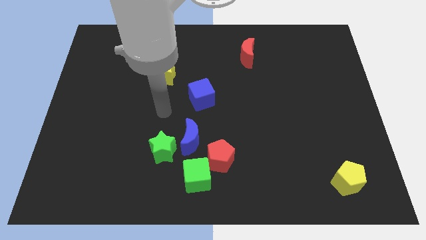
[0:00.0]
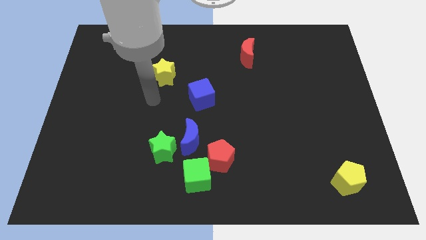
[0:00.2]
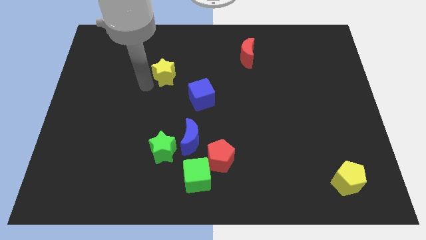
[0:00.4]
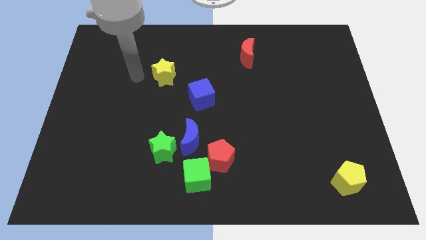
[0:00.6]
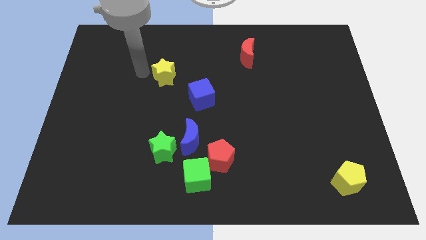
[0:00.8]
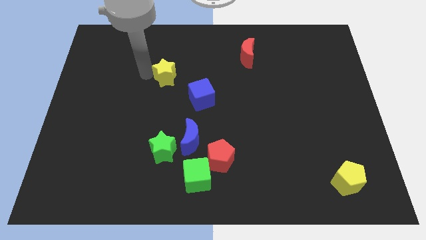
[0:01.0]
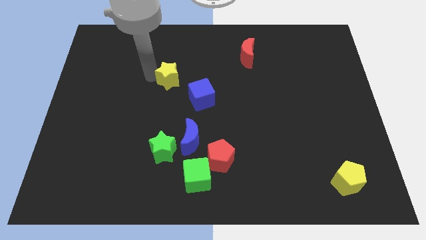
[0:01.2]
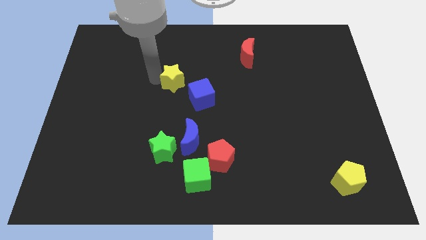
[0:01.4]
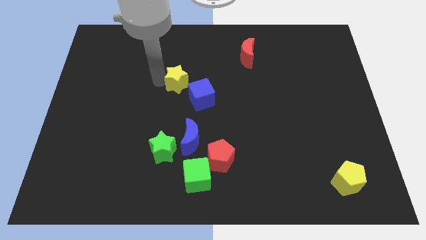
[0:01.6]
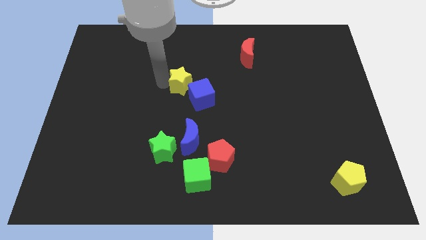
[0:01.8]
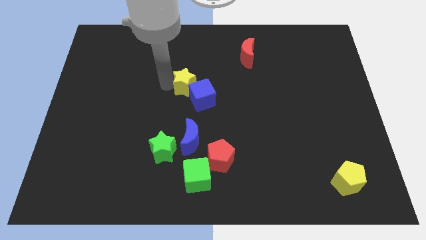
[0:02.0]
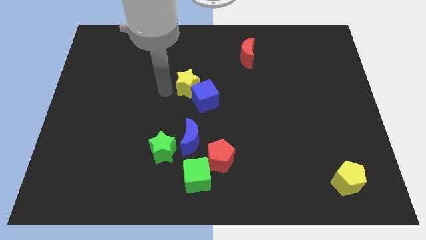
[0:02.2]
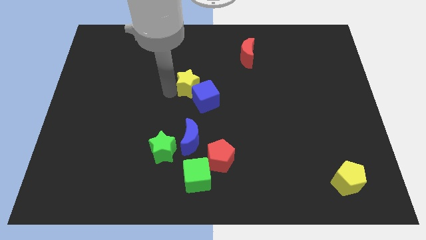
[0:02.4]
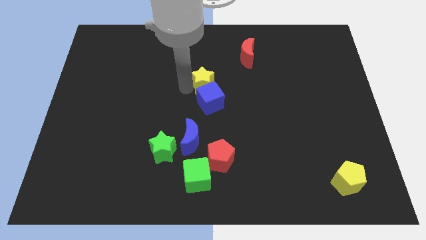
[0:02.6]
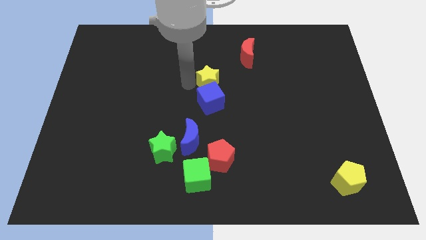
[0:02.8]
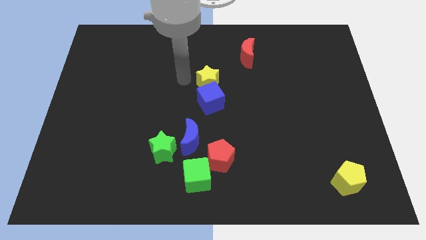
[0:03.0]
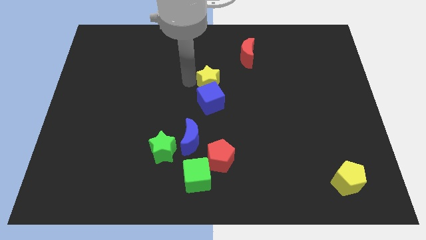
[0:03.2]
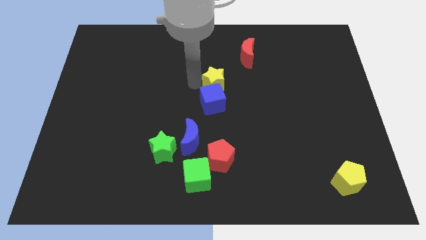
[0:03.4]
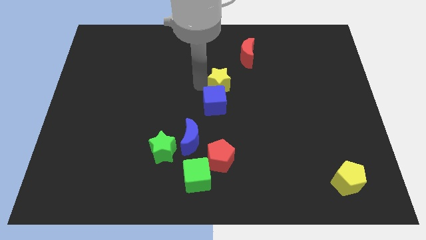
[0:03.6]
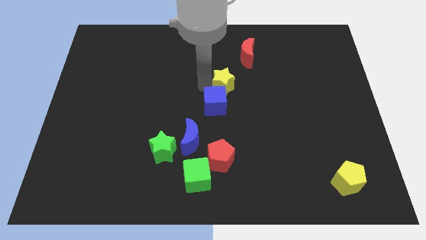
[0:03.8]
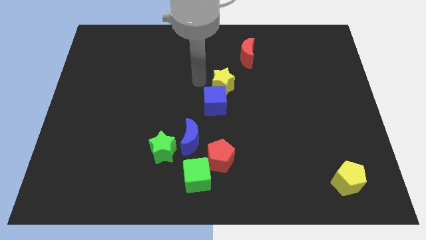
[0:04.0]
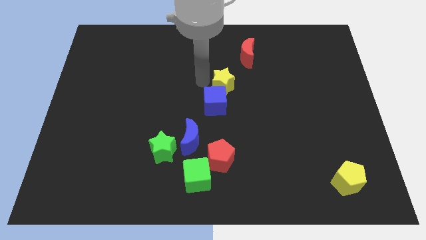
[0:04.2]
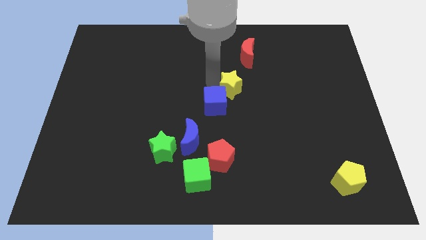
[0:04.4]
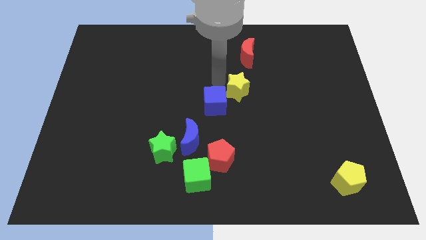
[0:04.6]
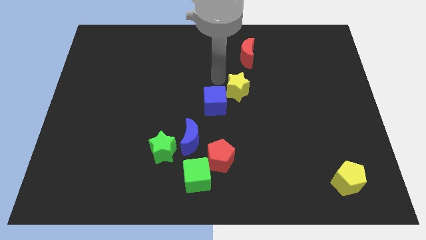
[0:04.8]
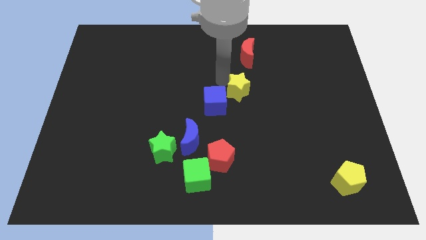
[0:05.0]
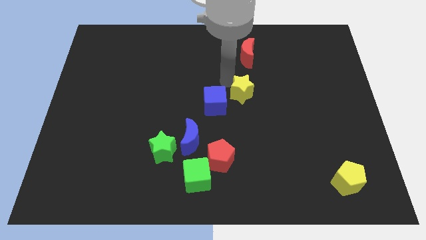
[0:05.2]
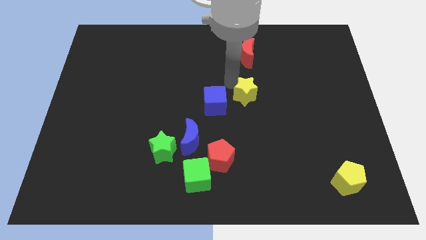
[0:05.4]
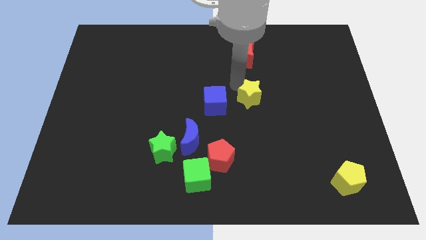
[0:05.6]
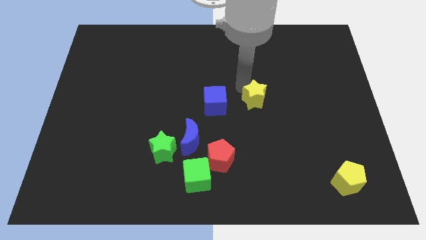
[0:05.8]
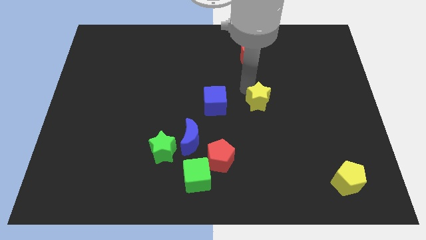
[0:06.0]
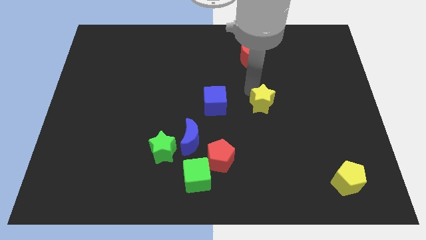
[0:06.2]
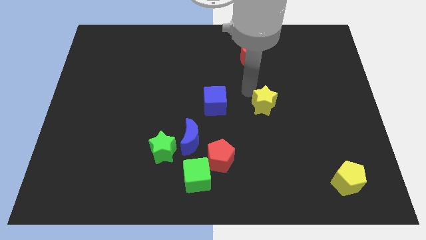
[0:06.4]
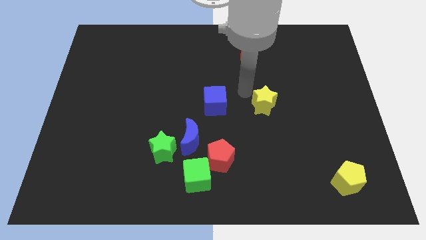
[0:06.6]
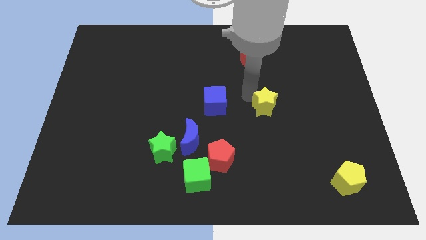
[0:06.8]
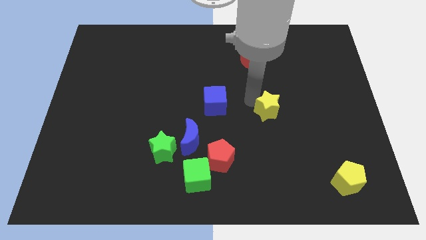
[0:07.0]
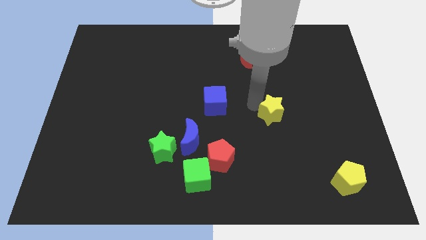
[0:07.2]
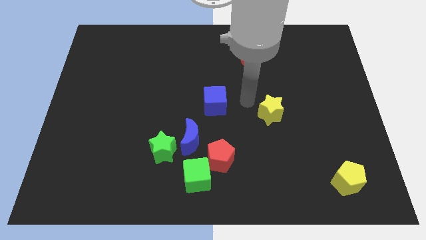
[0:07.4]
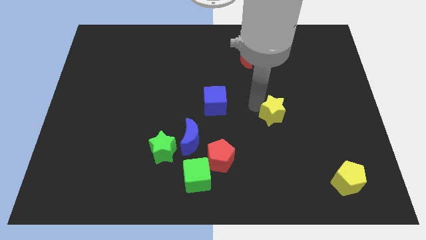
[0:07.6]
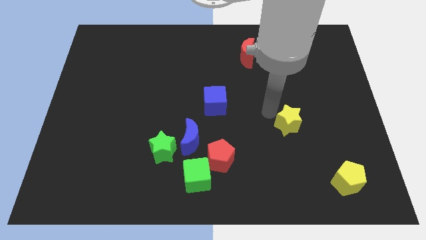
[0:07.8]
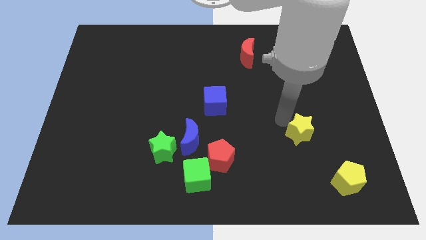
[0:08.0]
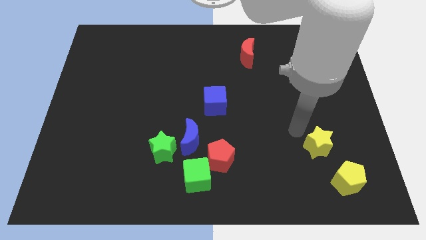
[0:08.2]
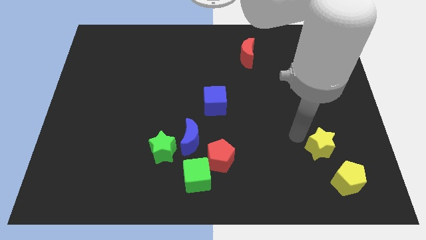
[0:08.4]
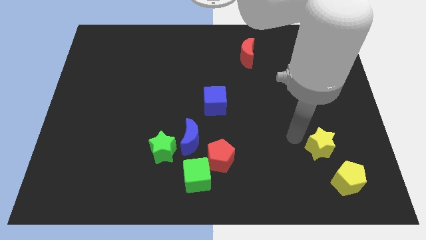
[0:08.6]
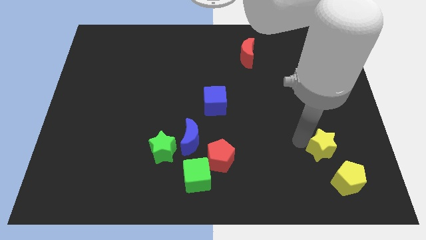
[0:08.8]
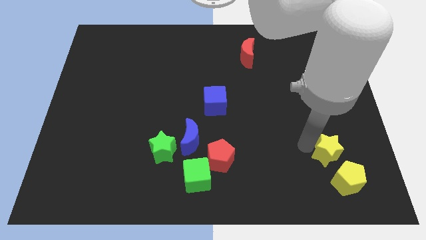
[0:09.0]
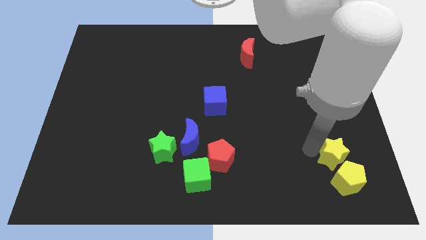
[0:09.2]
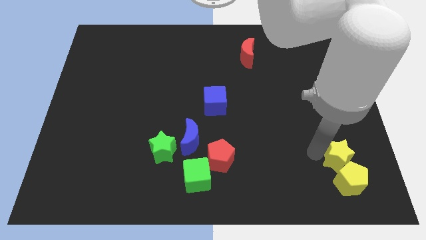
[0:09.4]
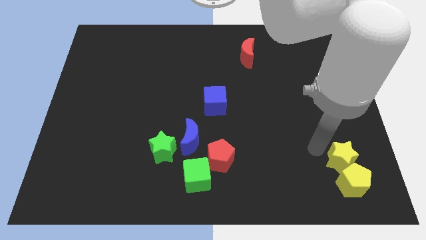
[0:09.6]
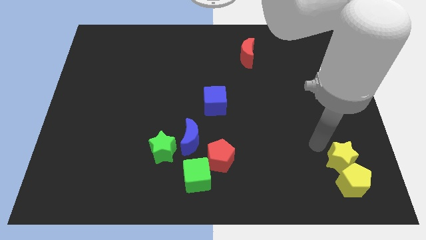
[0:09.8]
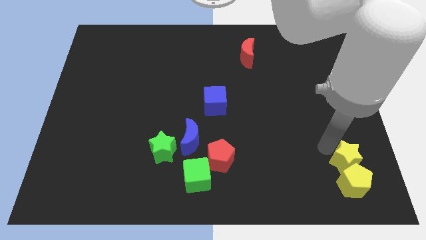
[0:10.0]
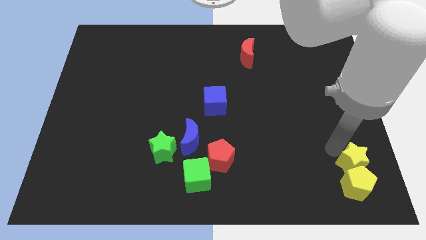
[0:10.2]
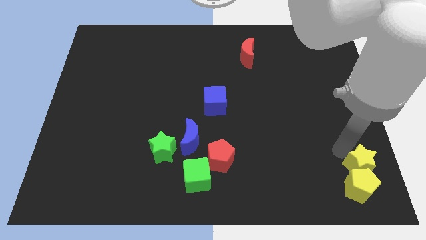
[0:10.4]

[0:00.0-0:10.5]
move the yellow star to the bottom right
